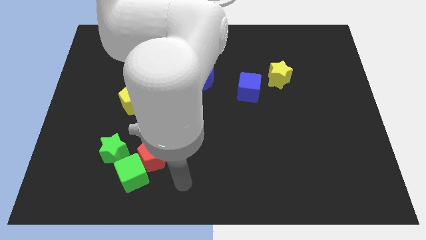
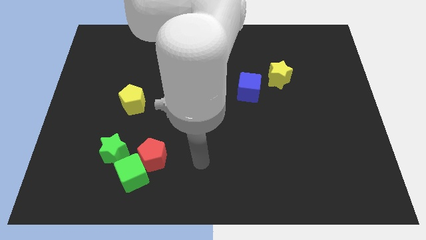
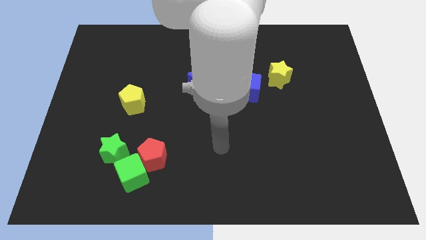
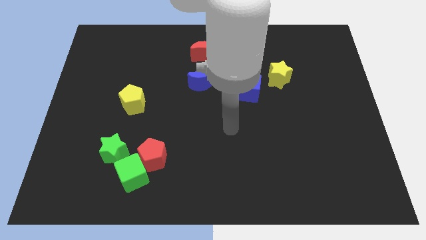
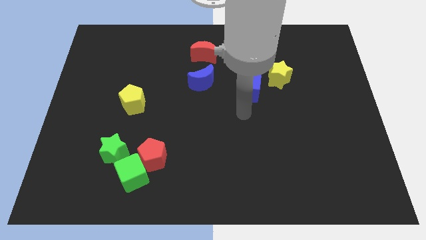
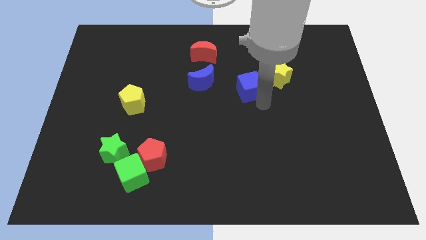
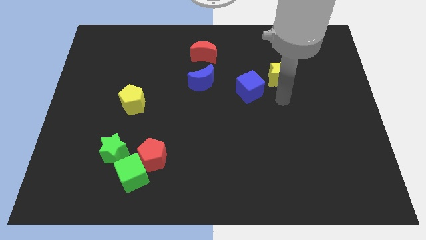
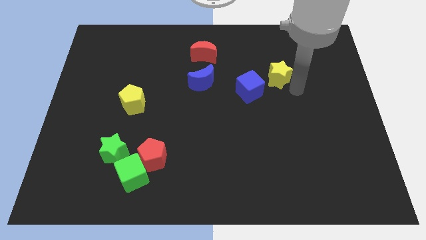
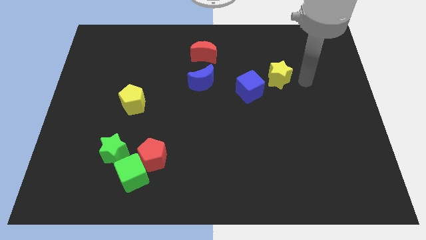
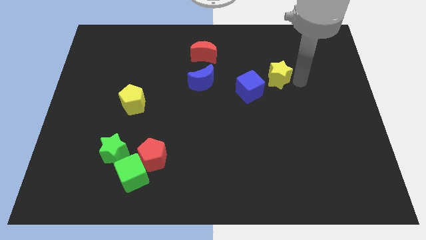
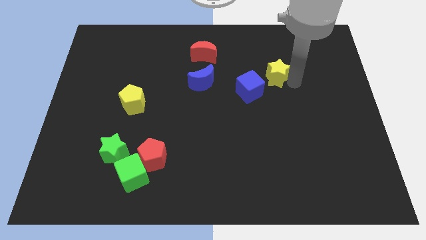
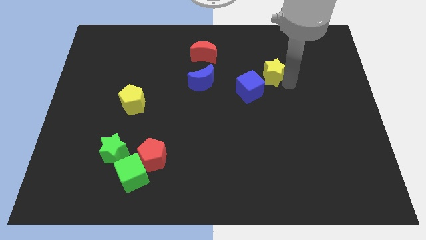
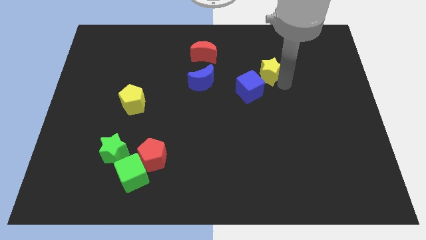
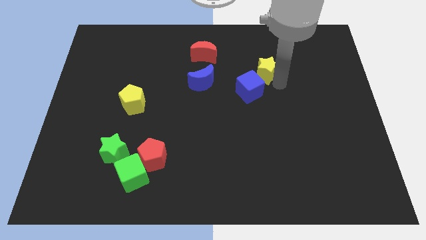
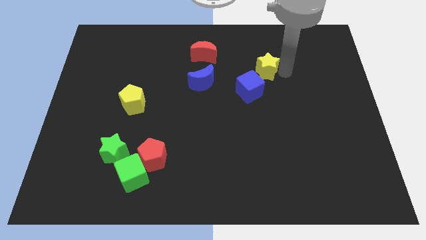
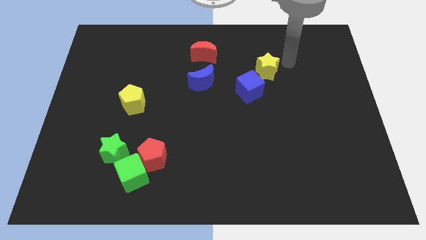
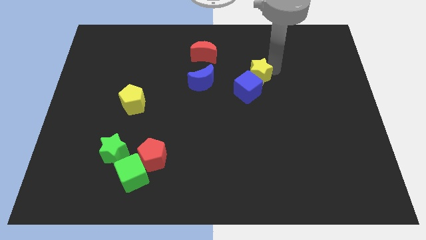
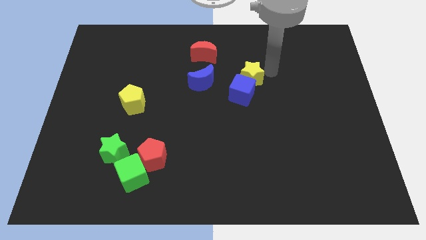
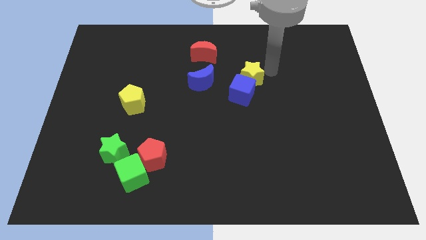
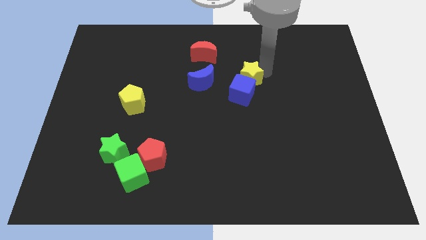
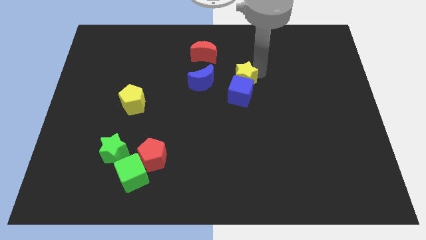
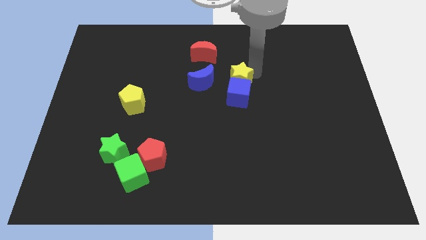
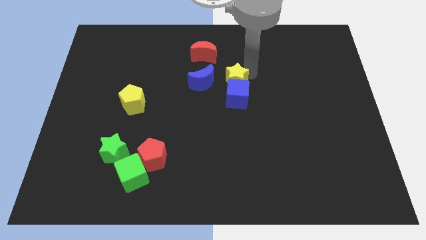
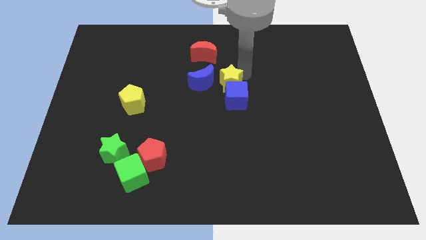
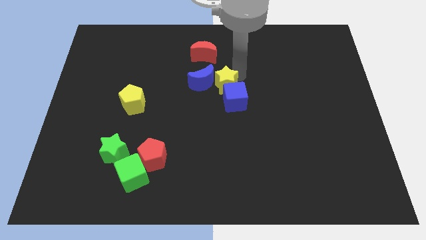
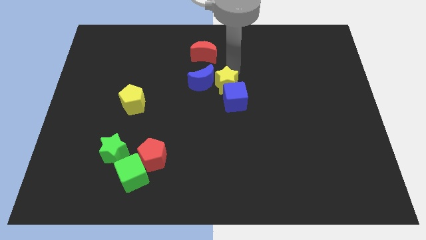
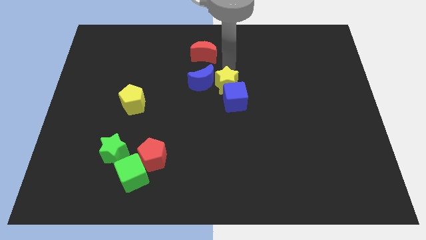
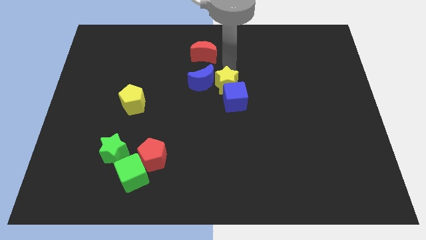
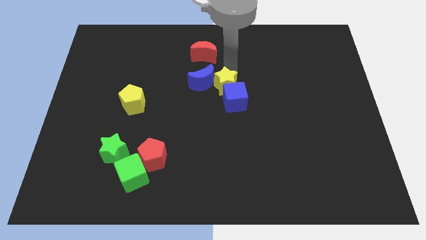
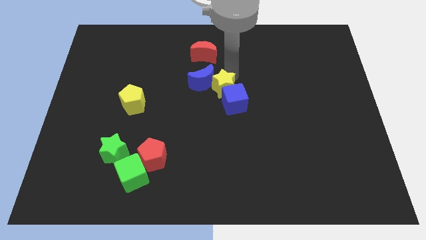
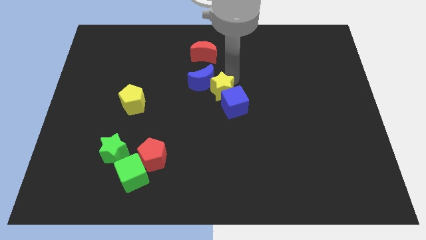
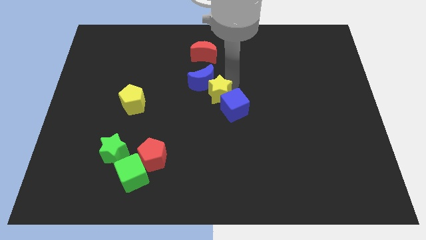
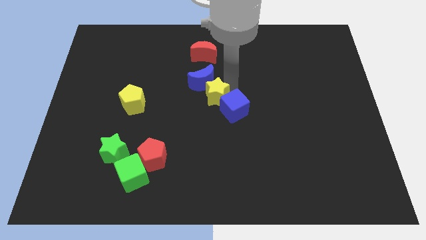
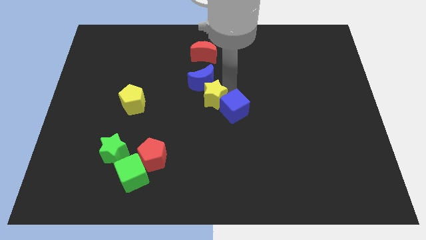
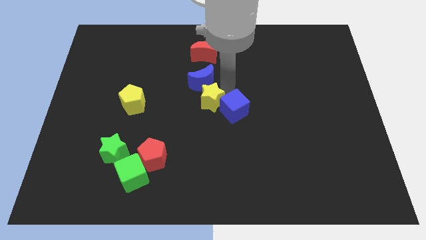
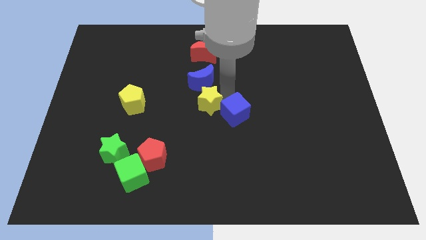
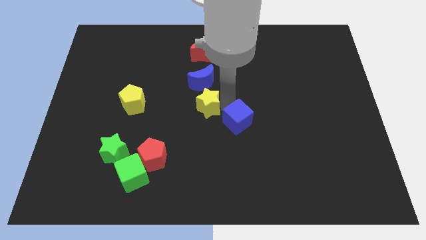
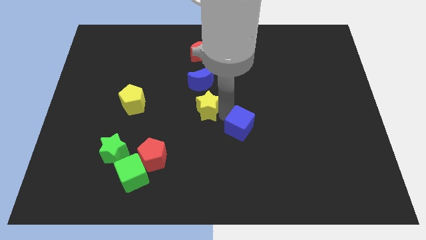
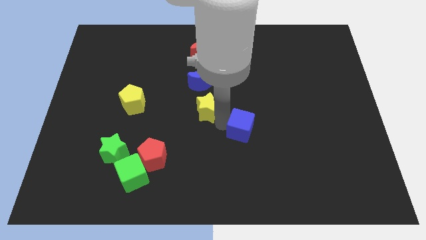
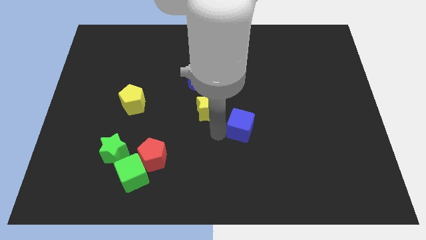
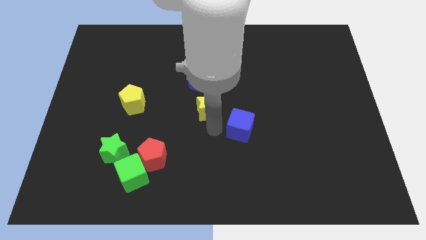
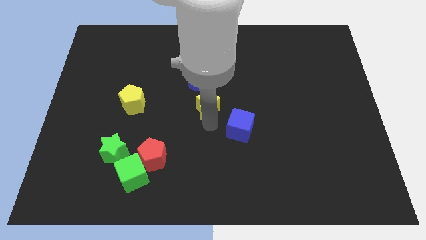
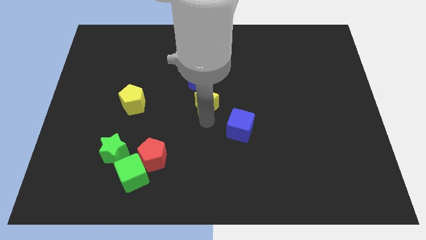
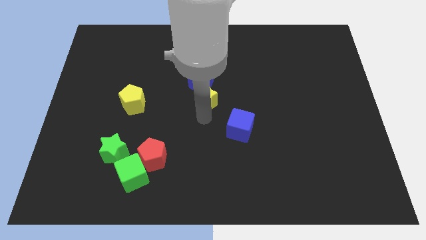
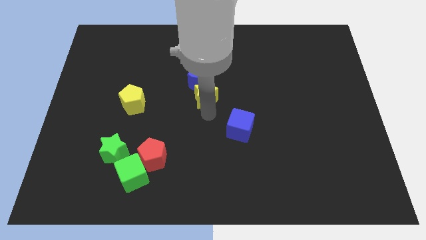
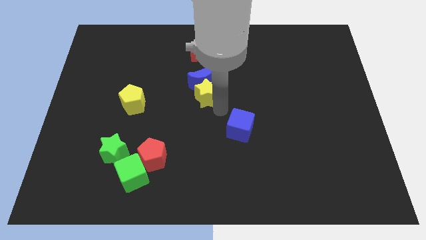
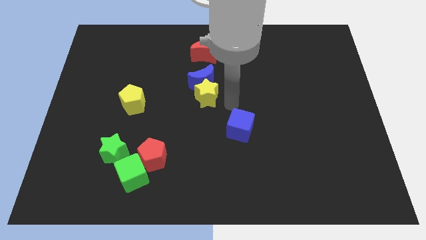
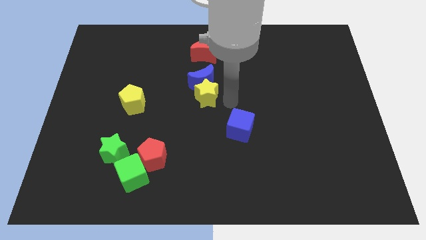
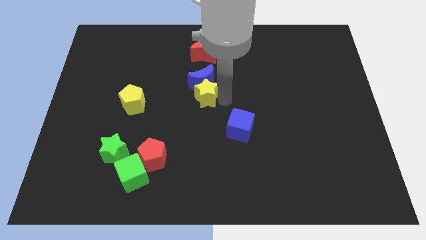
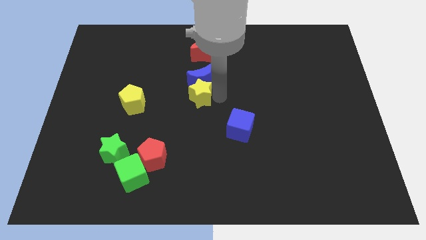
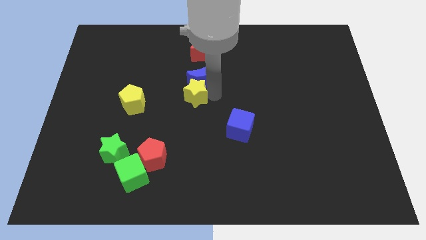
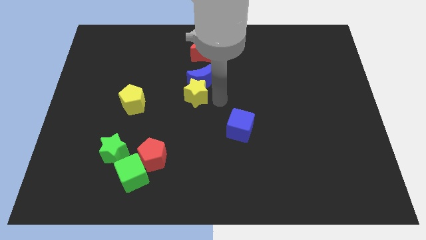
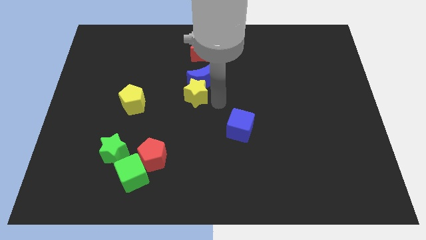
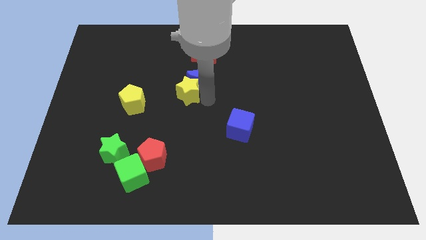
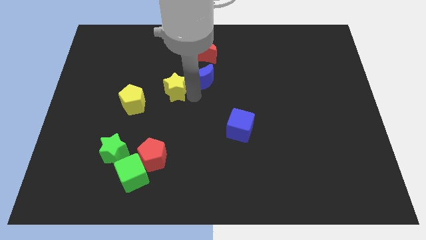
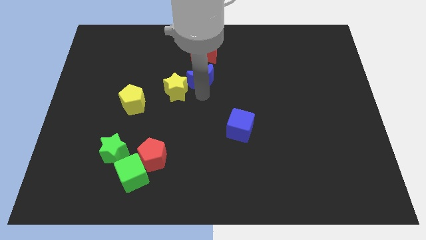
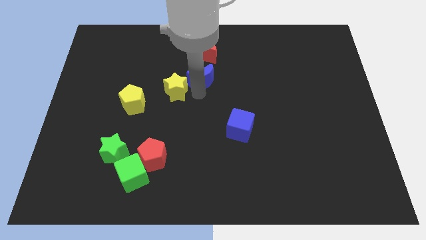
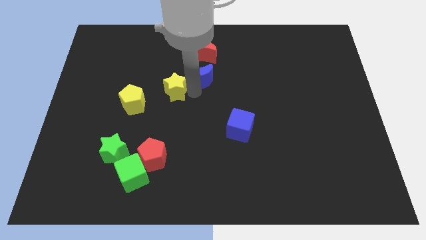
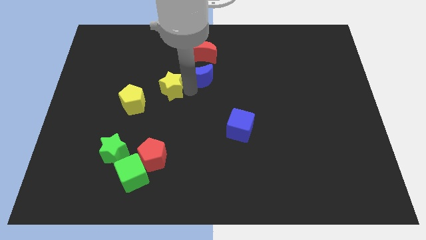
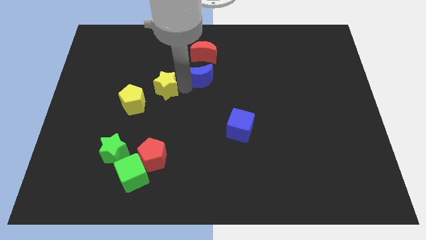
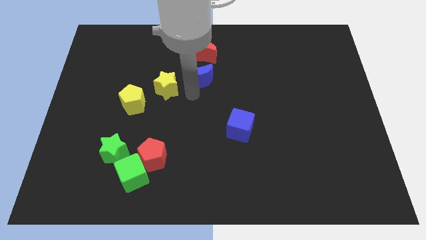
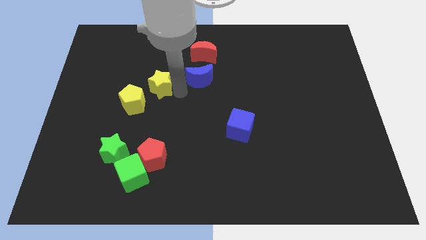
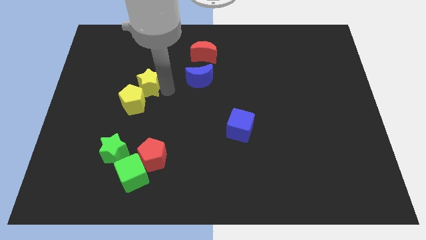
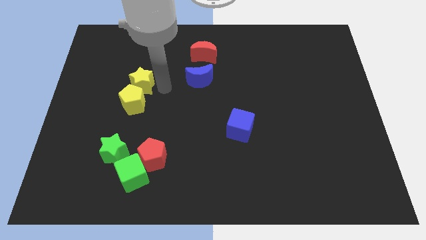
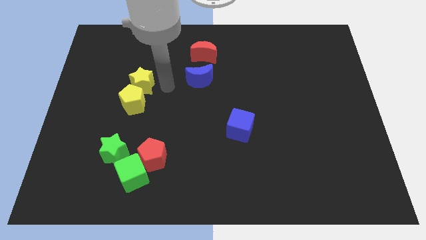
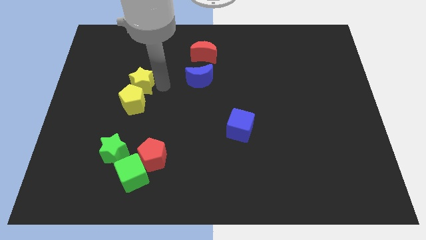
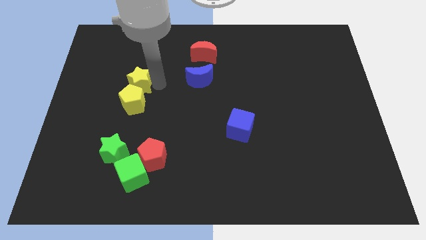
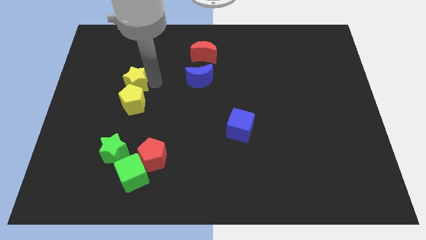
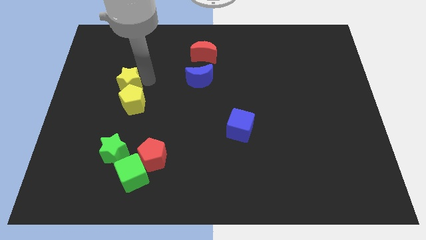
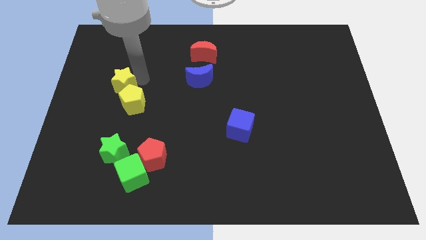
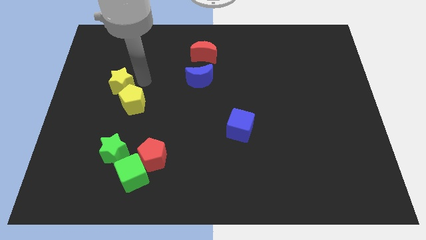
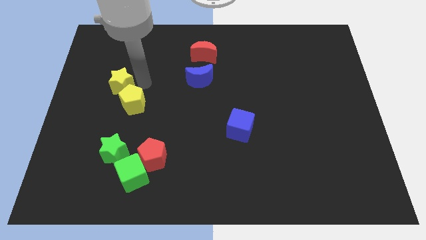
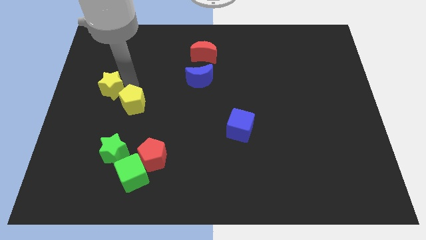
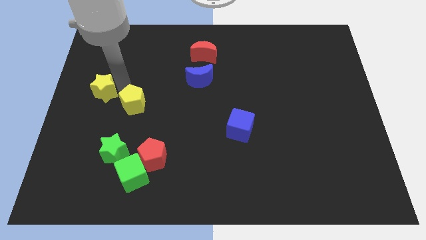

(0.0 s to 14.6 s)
push the yellow star to the center left
